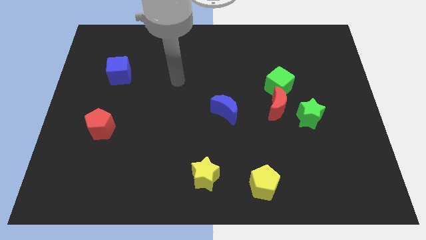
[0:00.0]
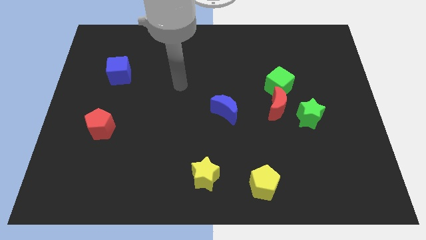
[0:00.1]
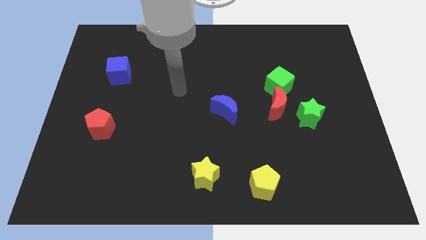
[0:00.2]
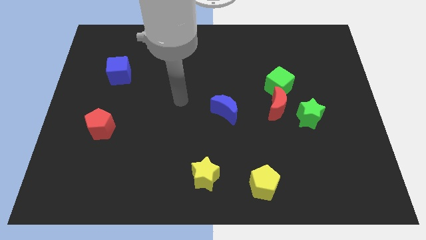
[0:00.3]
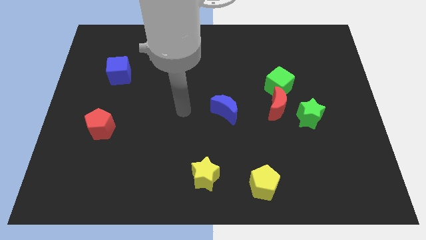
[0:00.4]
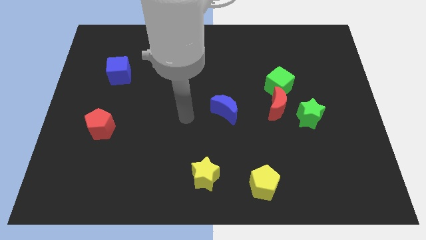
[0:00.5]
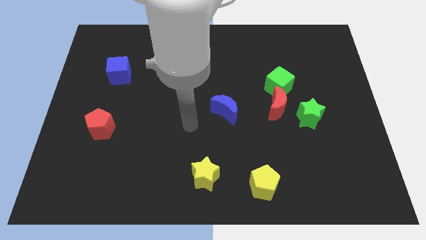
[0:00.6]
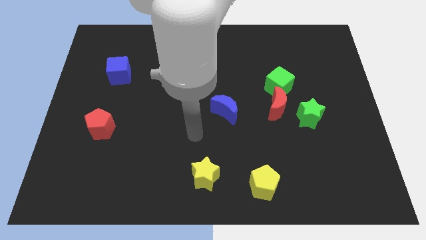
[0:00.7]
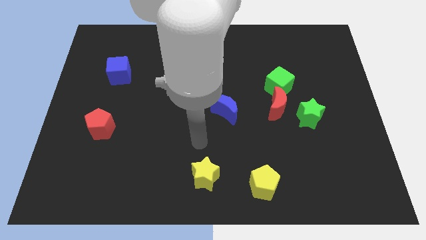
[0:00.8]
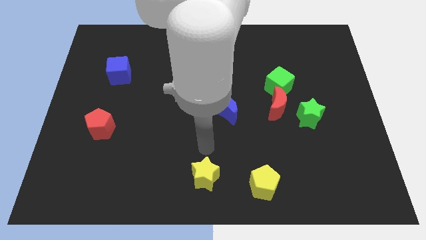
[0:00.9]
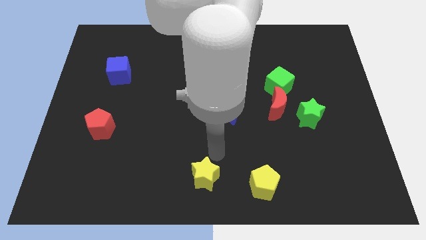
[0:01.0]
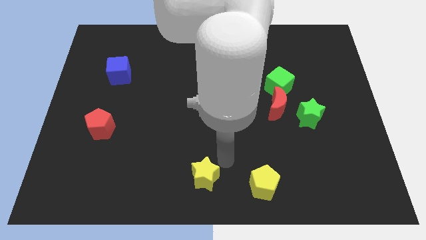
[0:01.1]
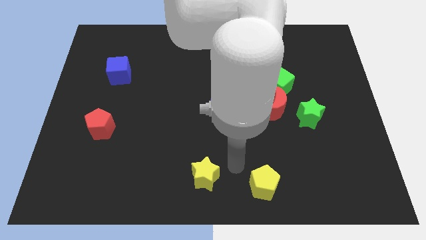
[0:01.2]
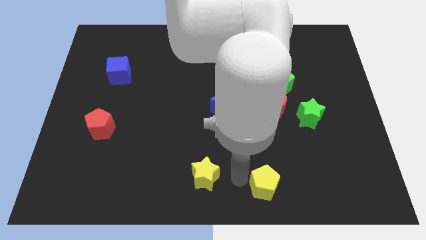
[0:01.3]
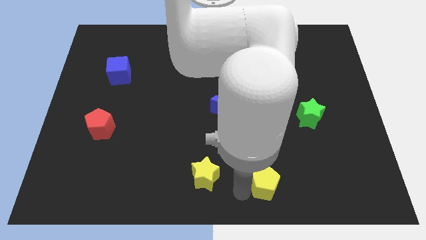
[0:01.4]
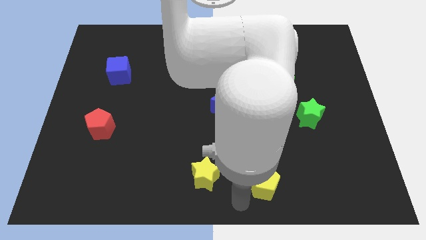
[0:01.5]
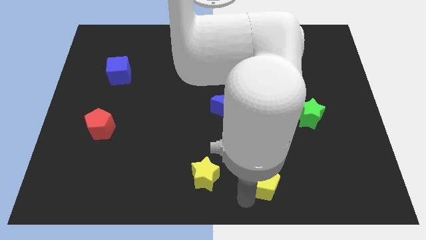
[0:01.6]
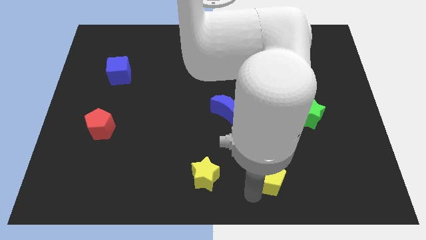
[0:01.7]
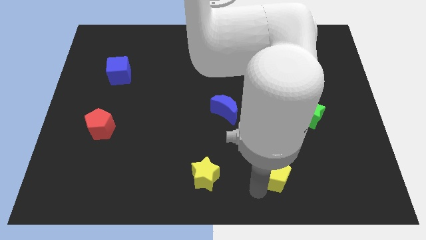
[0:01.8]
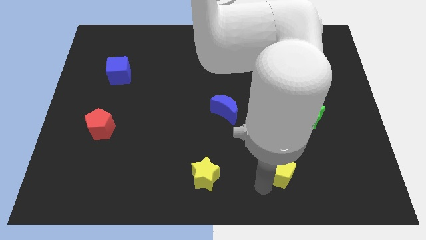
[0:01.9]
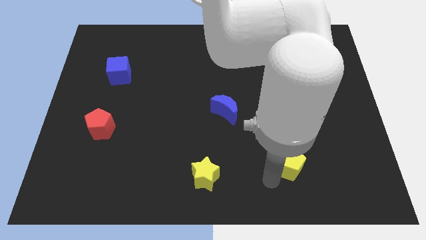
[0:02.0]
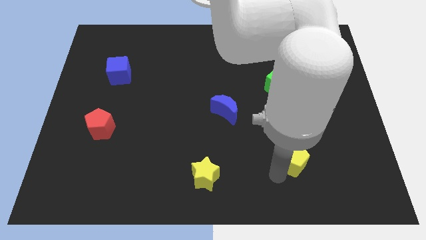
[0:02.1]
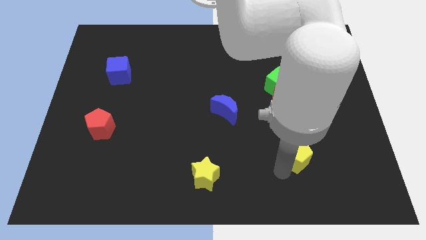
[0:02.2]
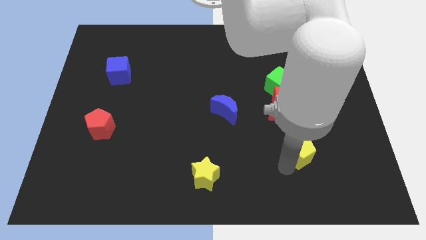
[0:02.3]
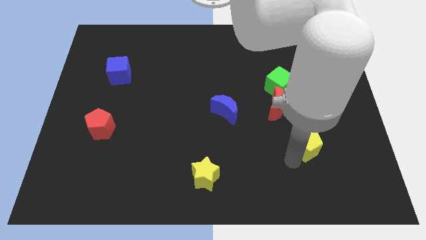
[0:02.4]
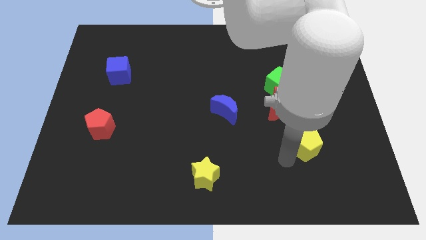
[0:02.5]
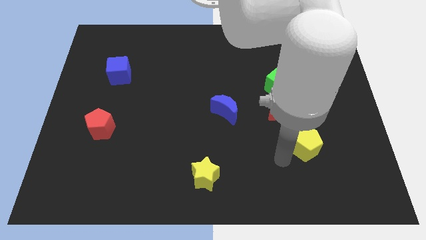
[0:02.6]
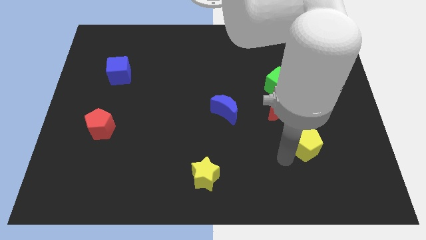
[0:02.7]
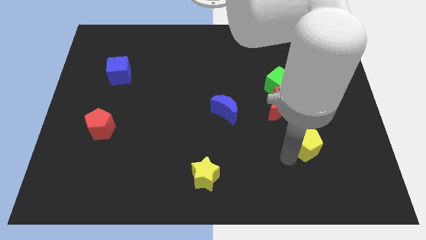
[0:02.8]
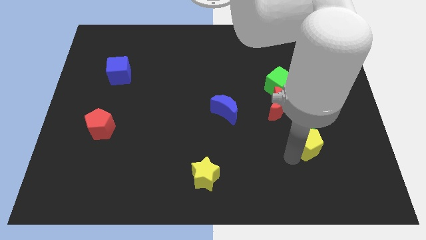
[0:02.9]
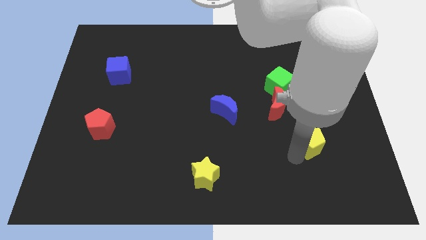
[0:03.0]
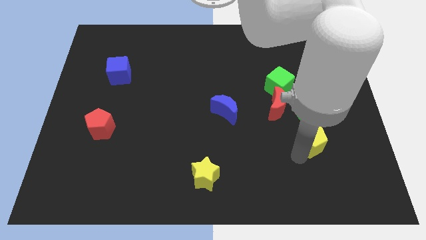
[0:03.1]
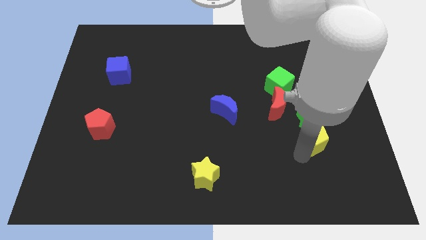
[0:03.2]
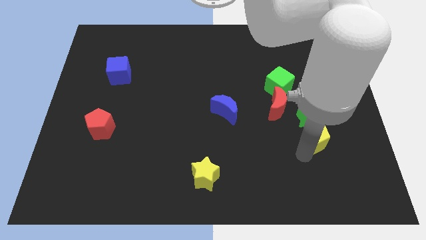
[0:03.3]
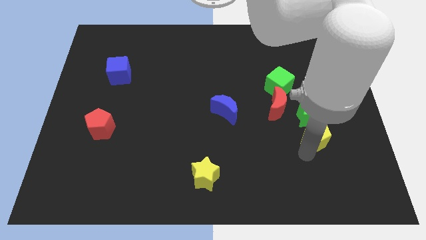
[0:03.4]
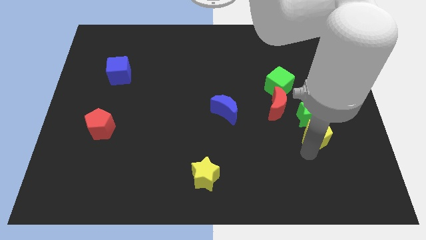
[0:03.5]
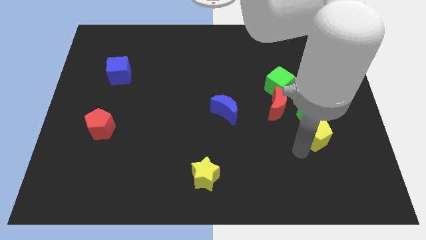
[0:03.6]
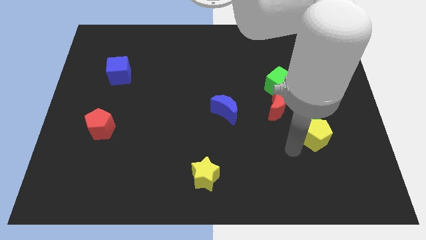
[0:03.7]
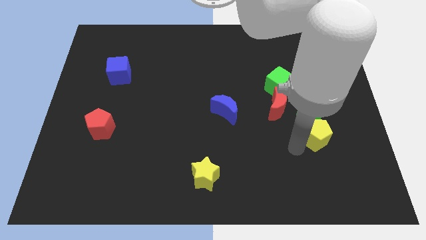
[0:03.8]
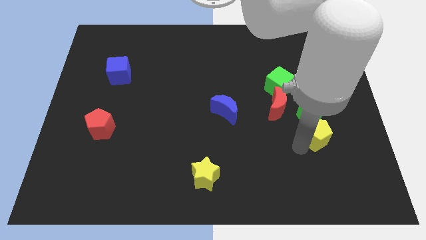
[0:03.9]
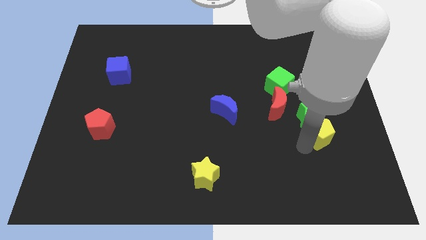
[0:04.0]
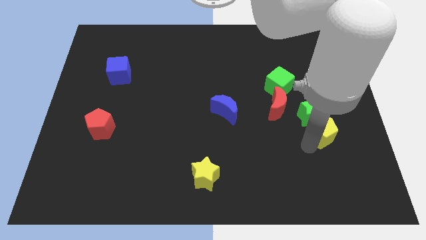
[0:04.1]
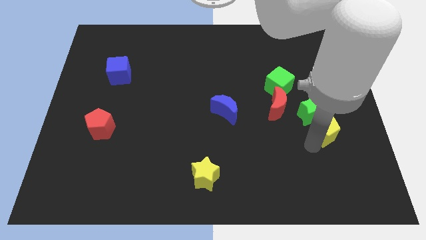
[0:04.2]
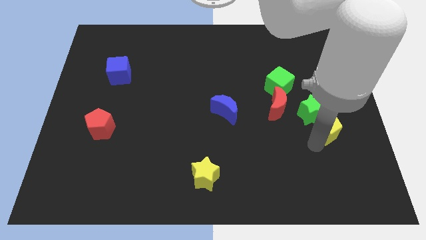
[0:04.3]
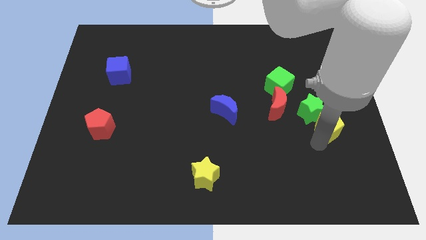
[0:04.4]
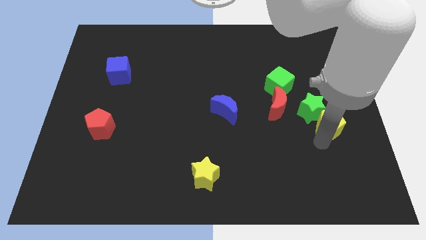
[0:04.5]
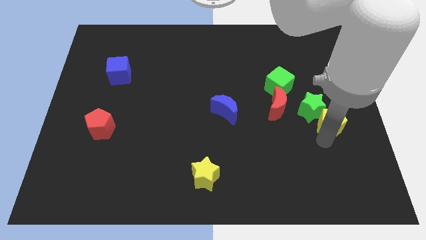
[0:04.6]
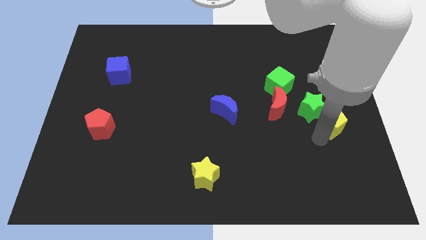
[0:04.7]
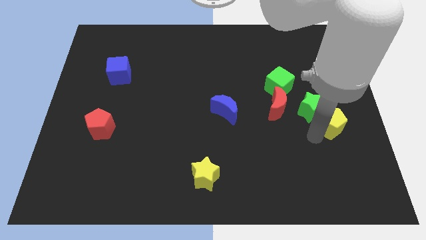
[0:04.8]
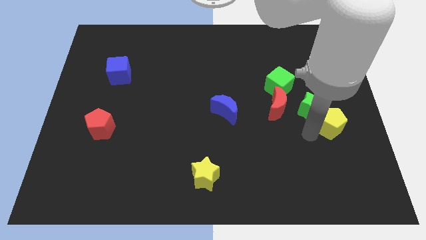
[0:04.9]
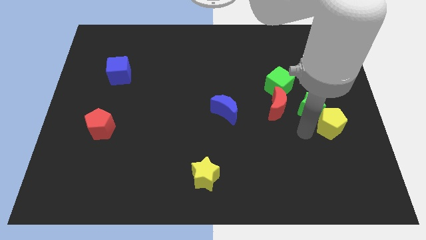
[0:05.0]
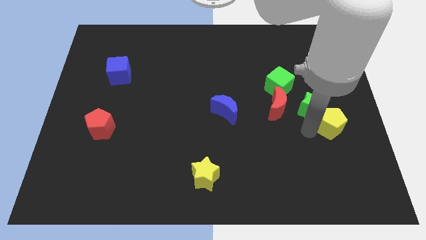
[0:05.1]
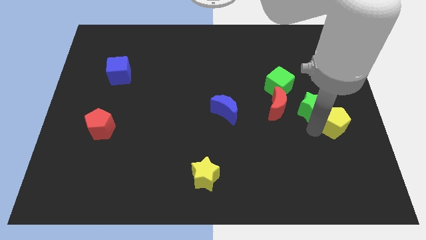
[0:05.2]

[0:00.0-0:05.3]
push the yellow pentagon to the center right

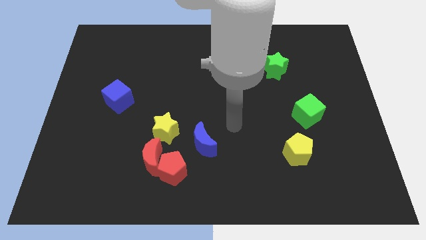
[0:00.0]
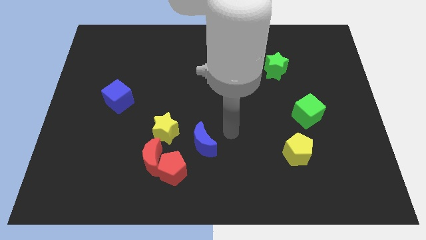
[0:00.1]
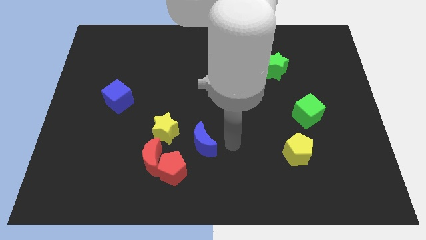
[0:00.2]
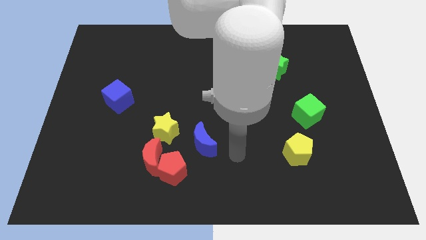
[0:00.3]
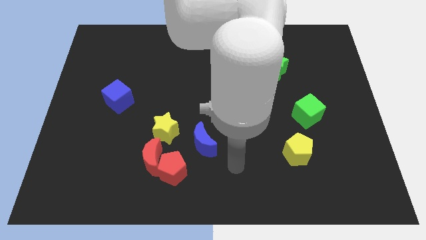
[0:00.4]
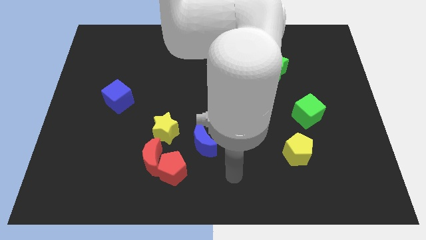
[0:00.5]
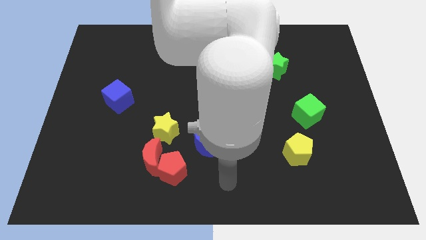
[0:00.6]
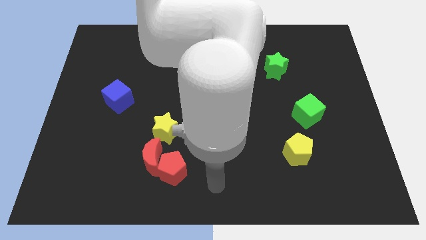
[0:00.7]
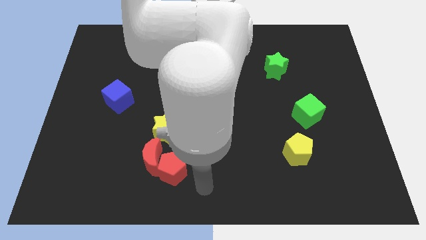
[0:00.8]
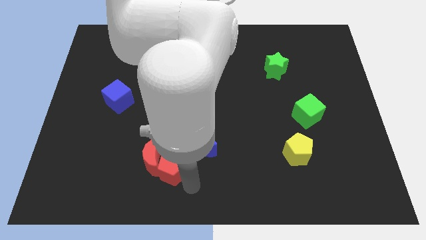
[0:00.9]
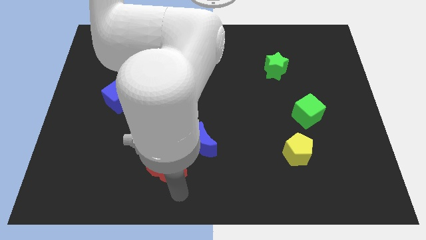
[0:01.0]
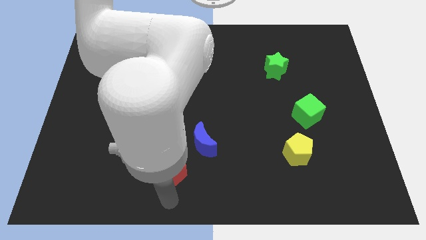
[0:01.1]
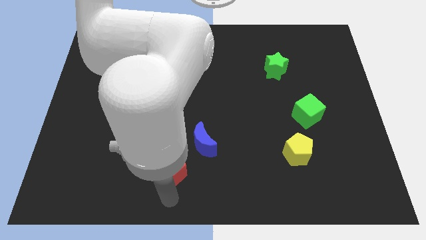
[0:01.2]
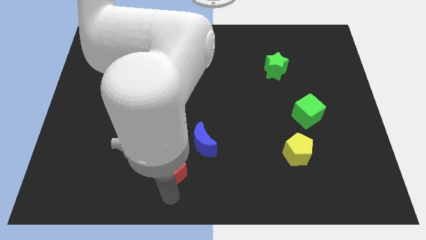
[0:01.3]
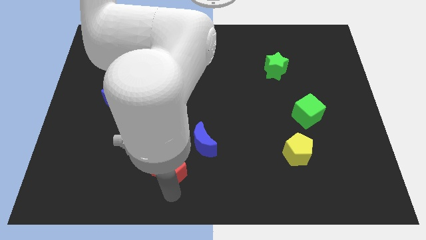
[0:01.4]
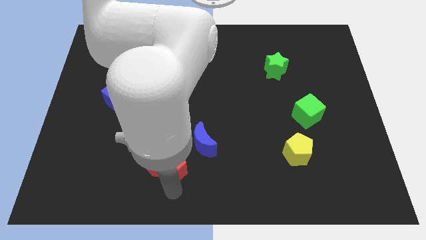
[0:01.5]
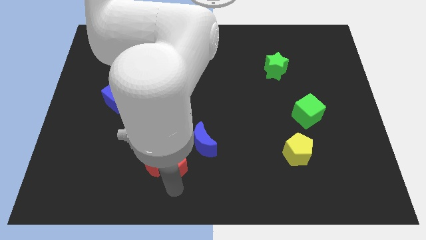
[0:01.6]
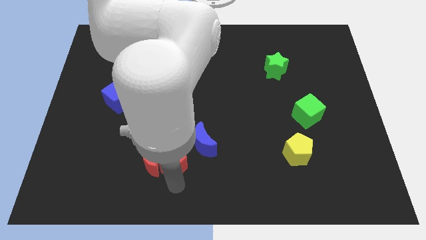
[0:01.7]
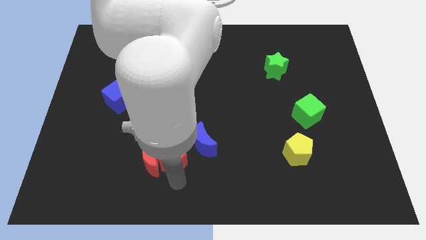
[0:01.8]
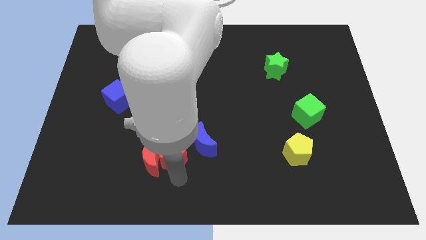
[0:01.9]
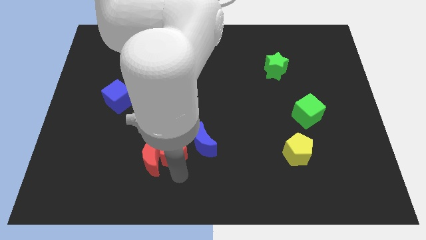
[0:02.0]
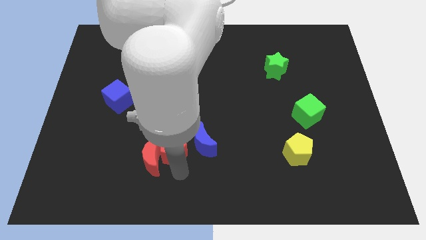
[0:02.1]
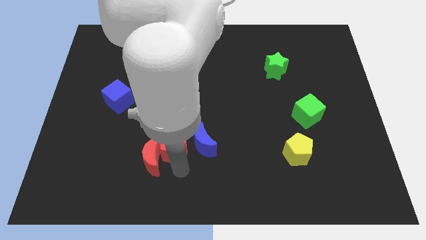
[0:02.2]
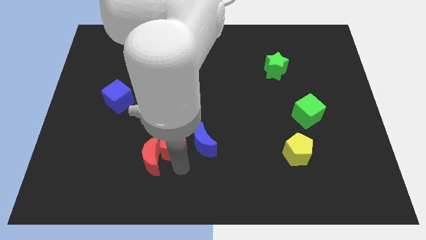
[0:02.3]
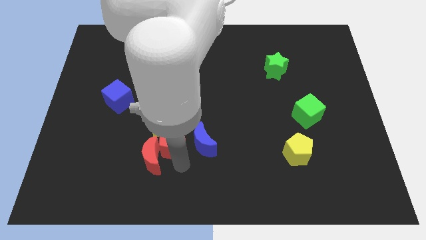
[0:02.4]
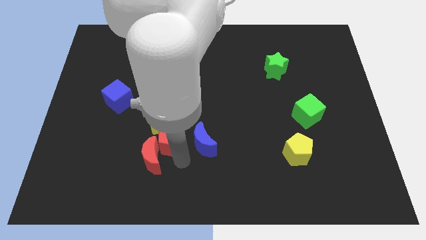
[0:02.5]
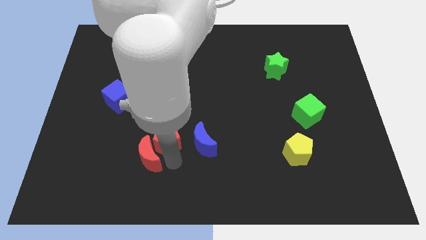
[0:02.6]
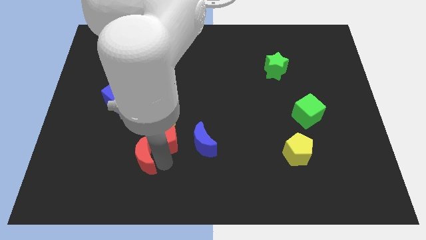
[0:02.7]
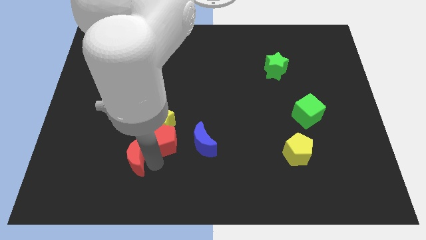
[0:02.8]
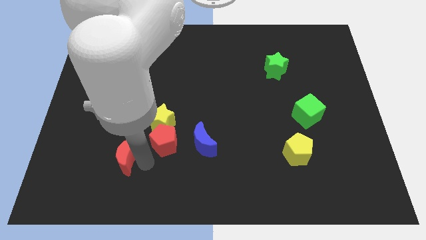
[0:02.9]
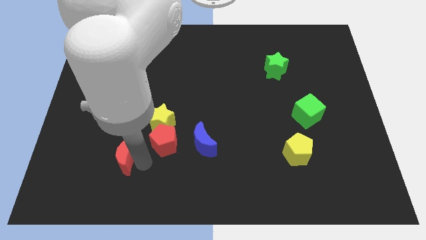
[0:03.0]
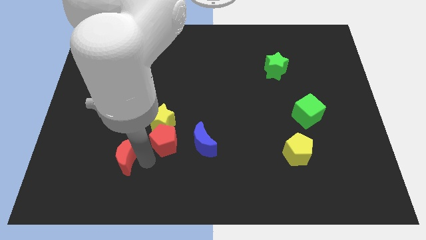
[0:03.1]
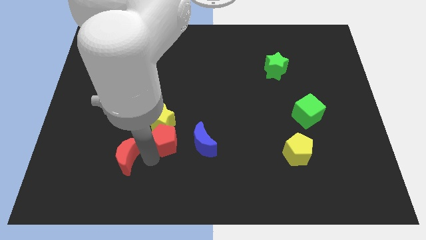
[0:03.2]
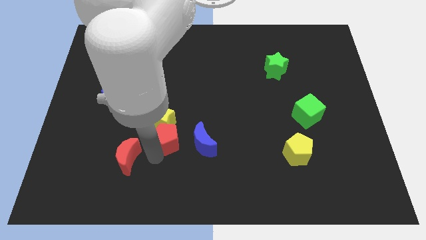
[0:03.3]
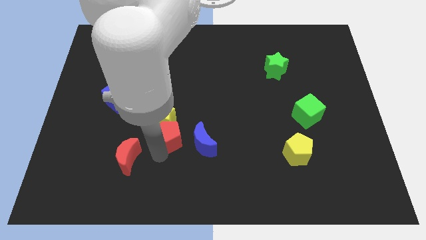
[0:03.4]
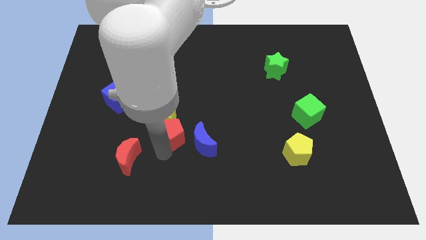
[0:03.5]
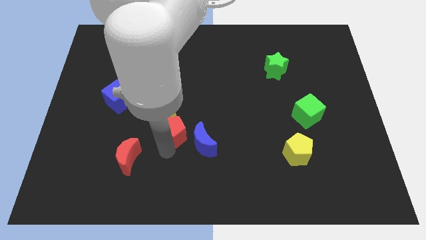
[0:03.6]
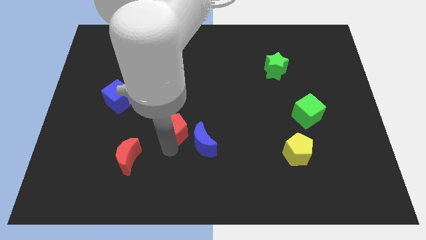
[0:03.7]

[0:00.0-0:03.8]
slide the red pentagon to the center
